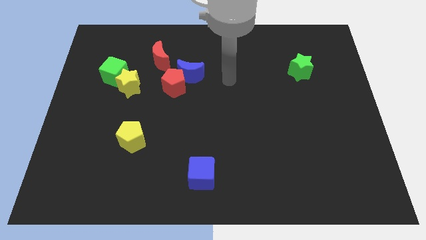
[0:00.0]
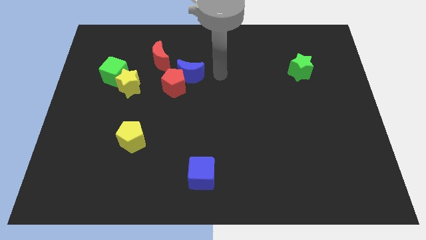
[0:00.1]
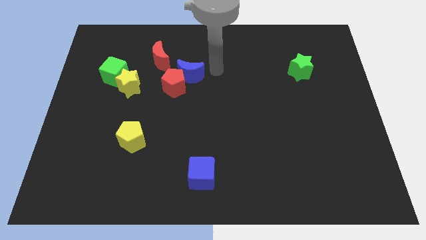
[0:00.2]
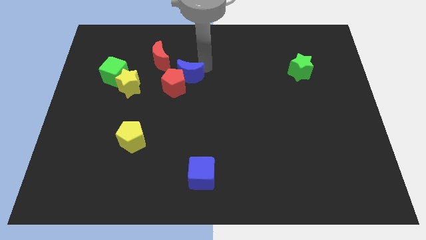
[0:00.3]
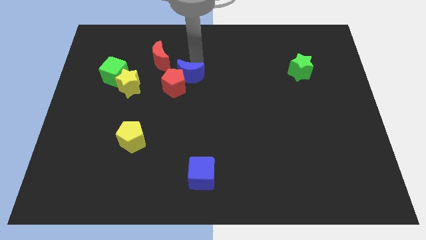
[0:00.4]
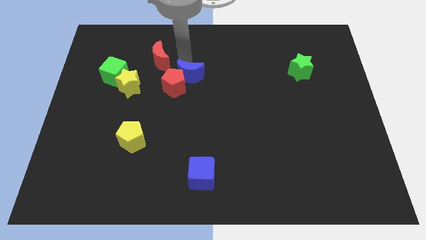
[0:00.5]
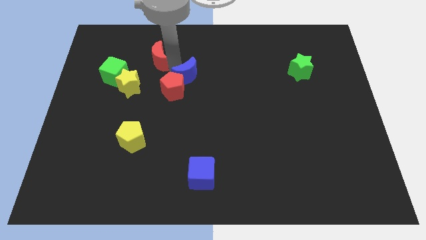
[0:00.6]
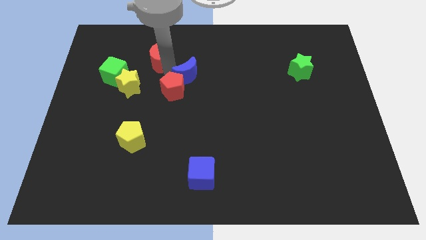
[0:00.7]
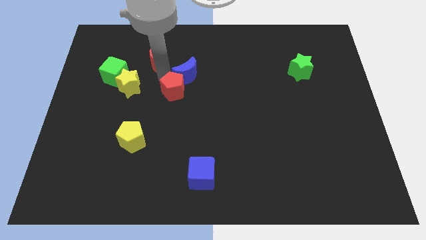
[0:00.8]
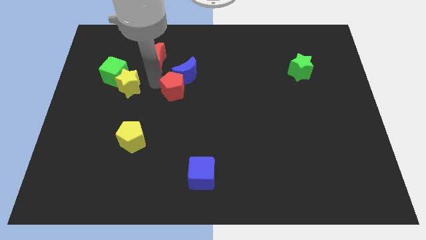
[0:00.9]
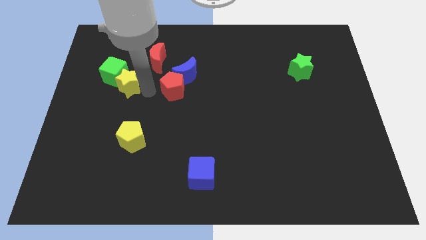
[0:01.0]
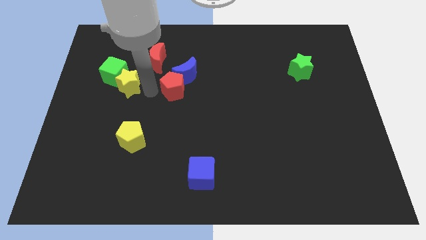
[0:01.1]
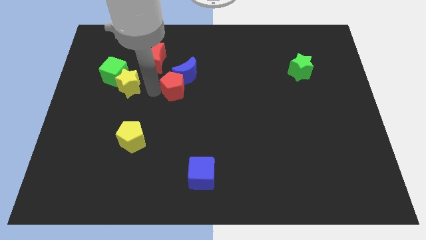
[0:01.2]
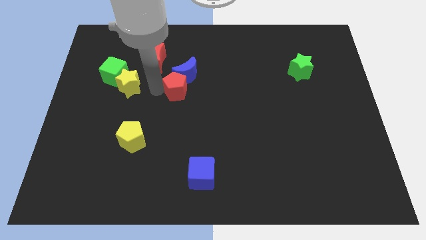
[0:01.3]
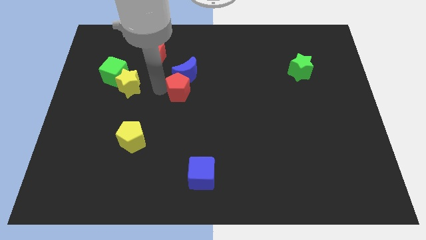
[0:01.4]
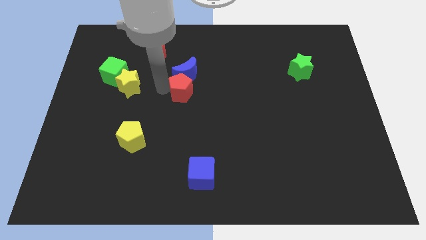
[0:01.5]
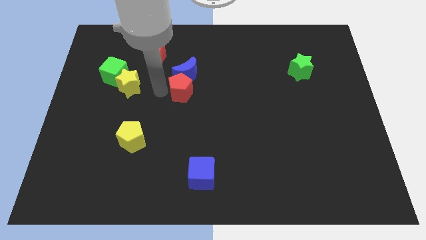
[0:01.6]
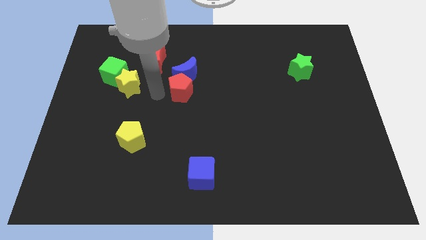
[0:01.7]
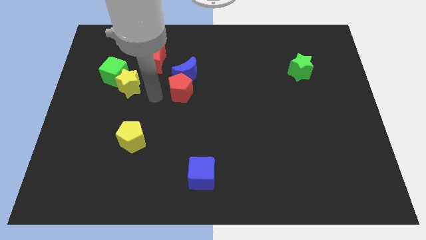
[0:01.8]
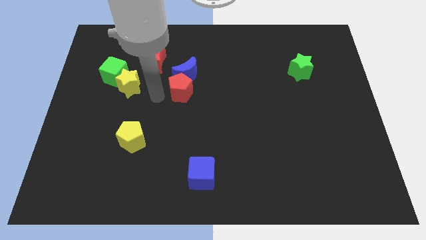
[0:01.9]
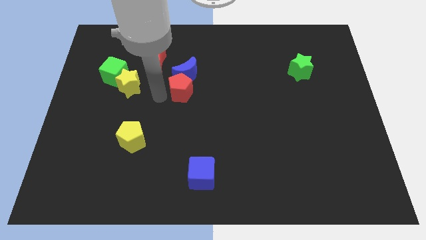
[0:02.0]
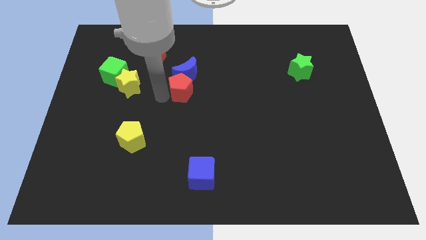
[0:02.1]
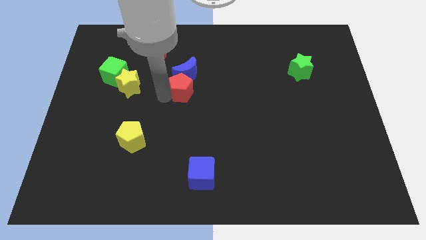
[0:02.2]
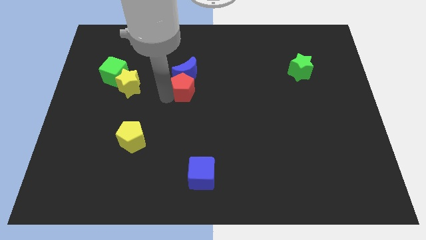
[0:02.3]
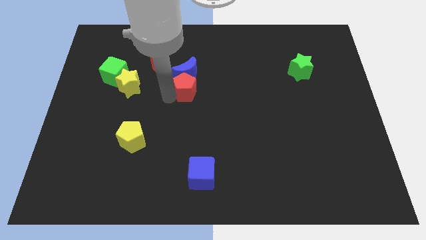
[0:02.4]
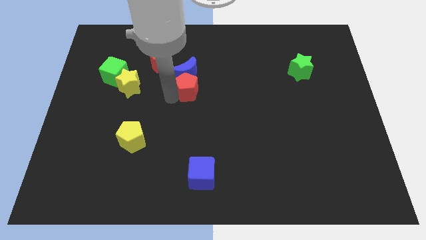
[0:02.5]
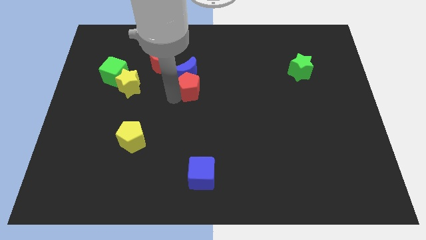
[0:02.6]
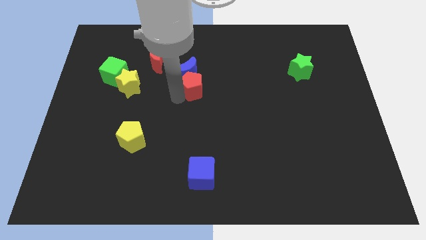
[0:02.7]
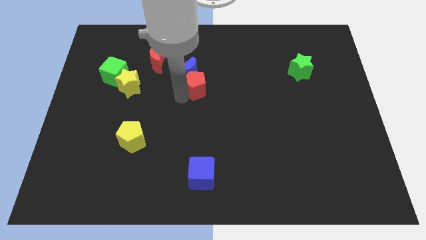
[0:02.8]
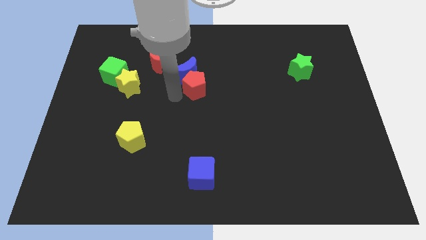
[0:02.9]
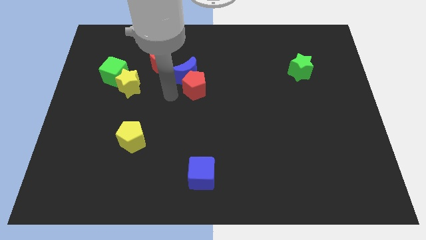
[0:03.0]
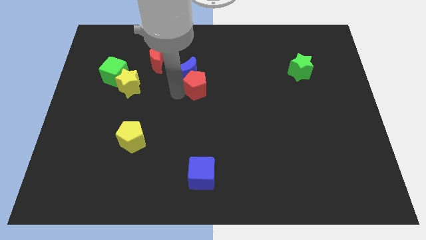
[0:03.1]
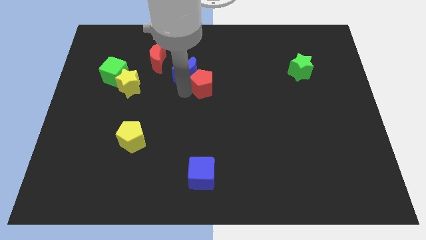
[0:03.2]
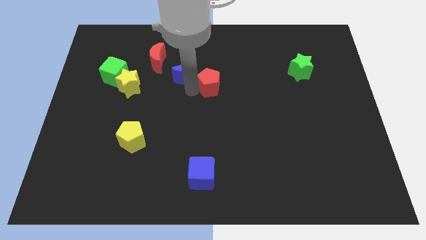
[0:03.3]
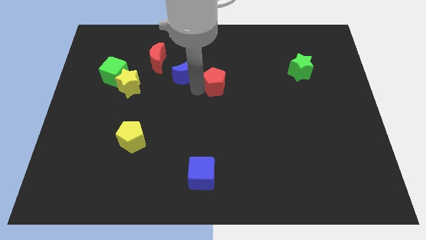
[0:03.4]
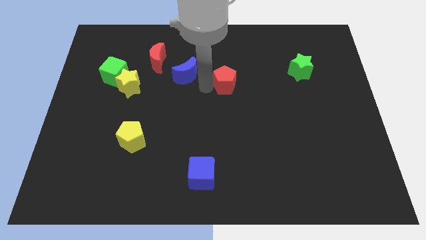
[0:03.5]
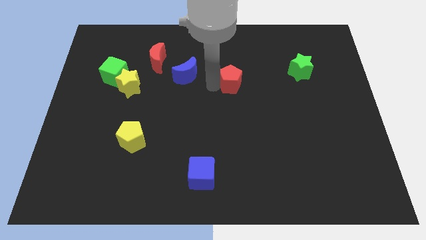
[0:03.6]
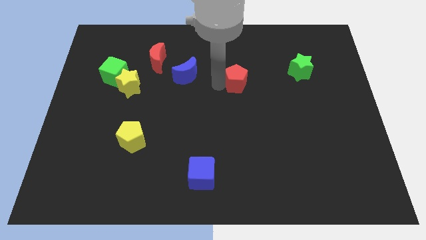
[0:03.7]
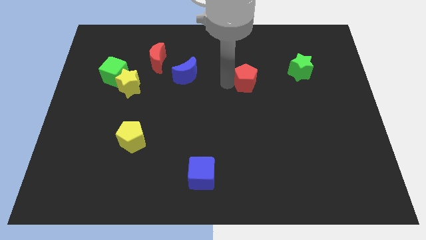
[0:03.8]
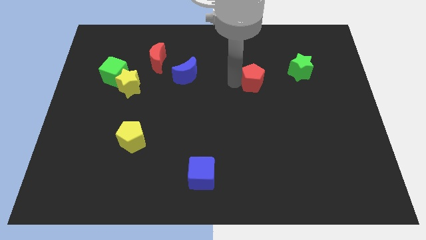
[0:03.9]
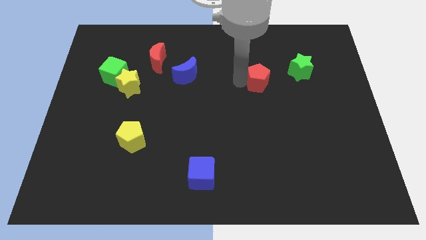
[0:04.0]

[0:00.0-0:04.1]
slide the red pentagon to the right

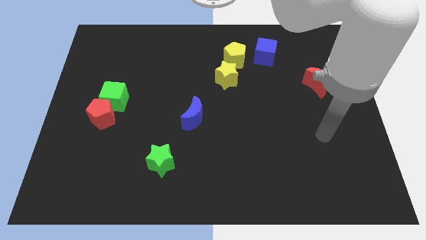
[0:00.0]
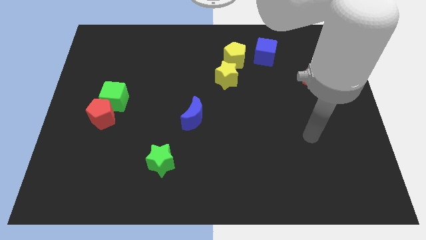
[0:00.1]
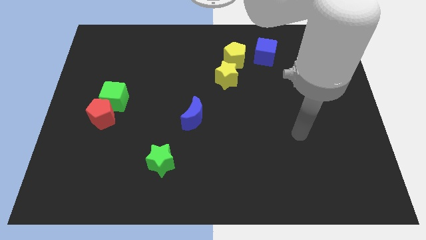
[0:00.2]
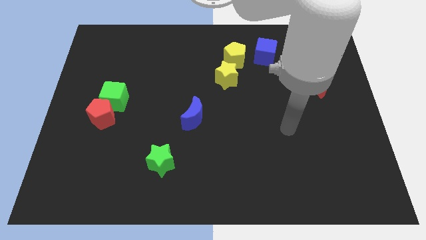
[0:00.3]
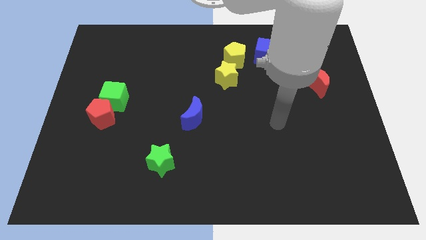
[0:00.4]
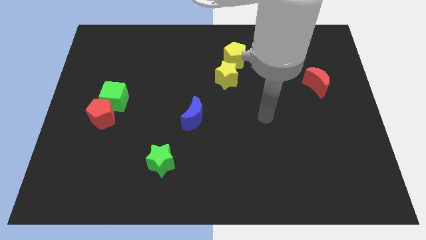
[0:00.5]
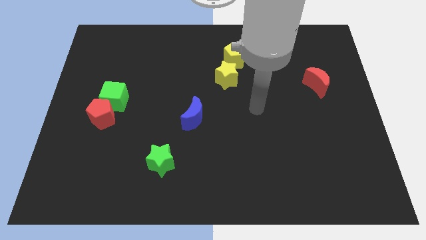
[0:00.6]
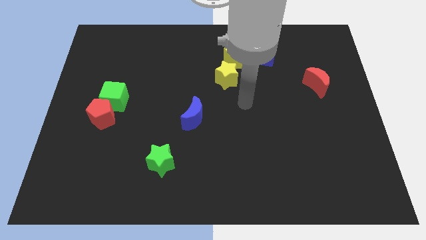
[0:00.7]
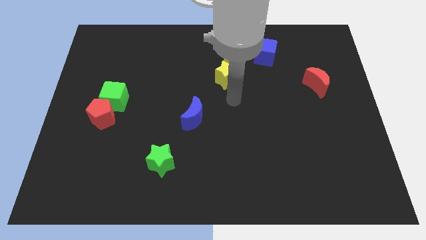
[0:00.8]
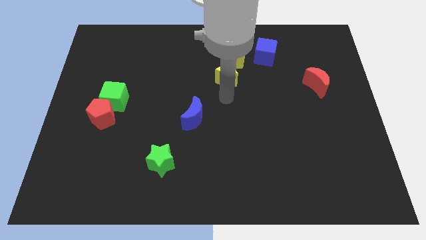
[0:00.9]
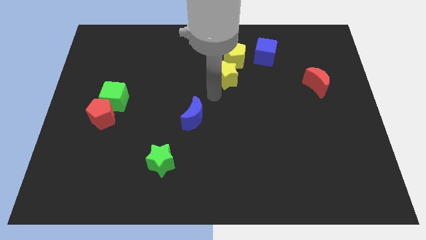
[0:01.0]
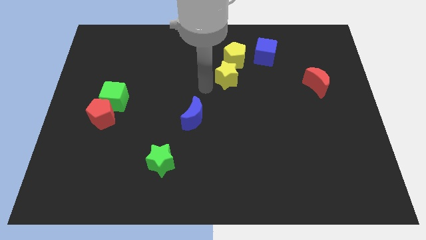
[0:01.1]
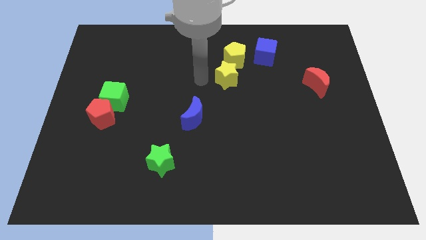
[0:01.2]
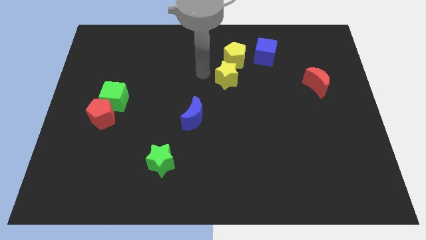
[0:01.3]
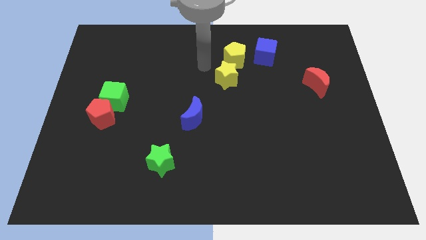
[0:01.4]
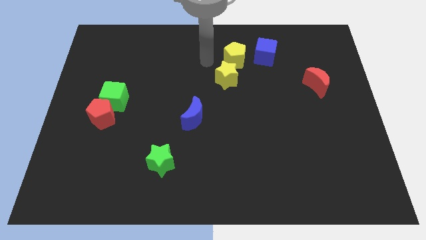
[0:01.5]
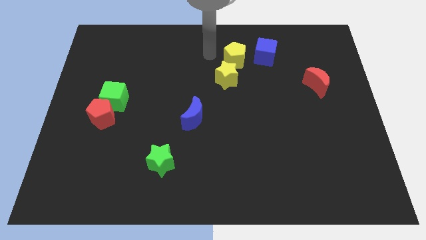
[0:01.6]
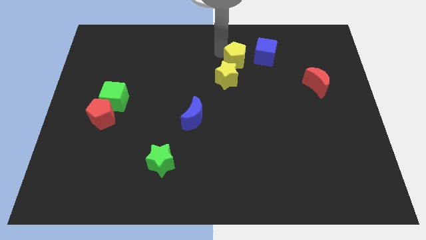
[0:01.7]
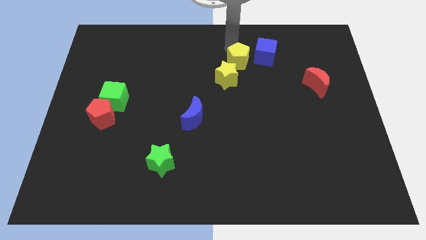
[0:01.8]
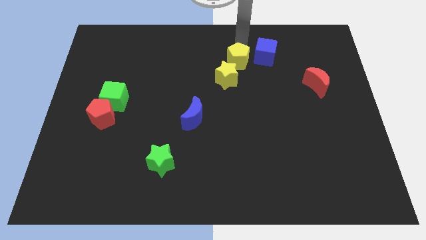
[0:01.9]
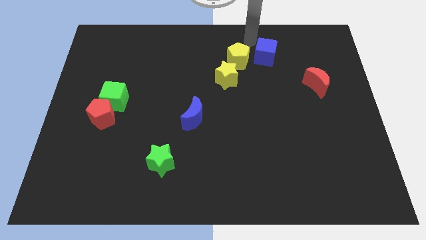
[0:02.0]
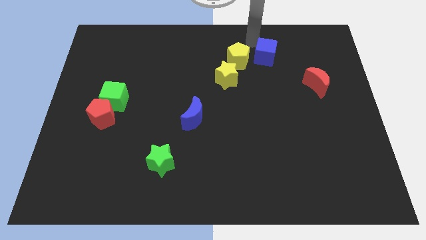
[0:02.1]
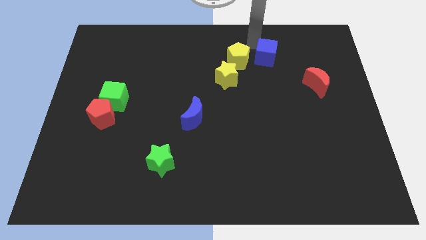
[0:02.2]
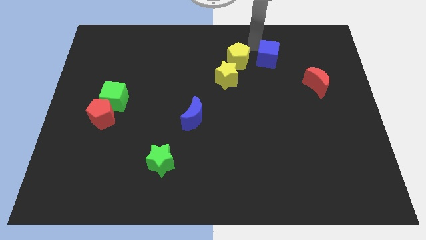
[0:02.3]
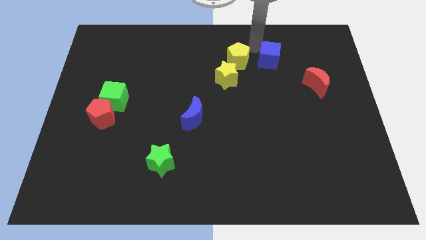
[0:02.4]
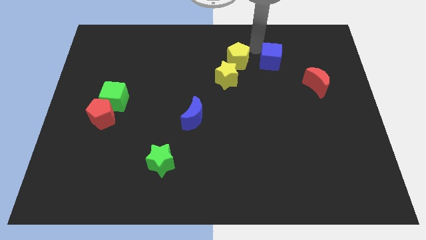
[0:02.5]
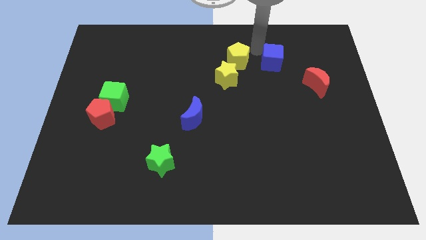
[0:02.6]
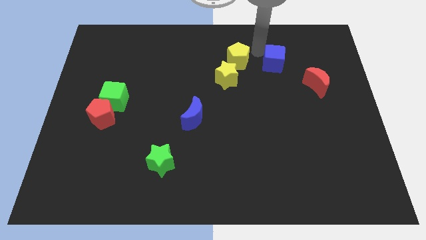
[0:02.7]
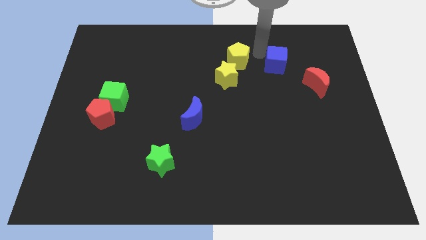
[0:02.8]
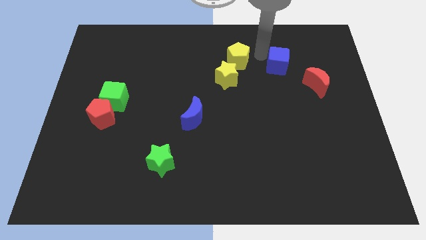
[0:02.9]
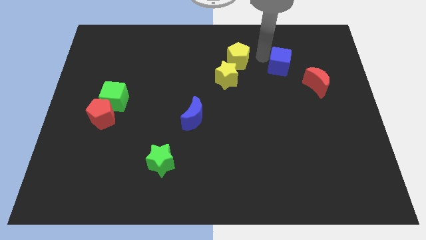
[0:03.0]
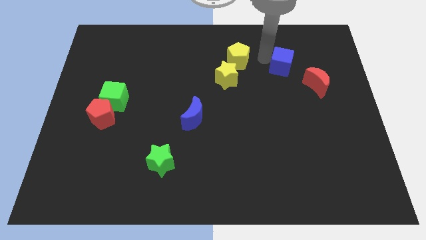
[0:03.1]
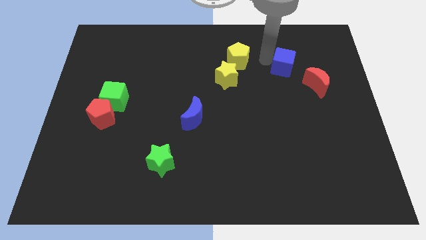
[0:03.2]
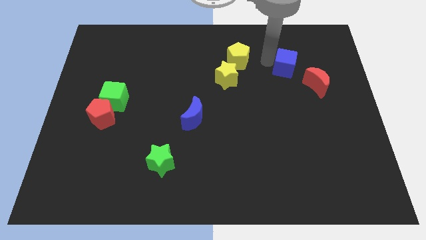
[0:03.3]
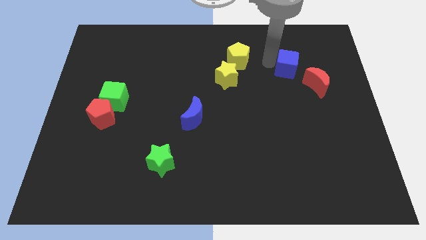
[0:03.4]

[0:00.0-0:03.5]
slightly push the blue cube down and to the right

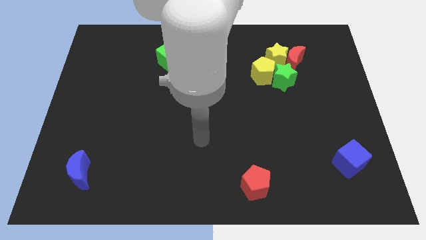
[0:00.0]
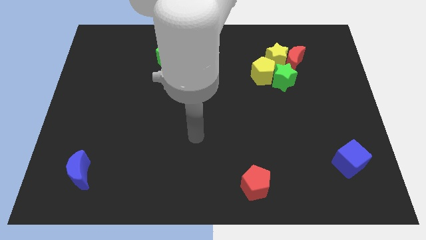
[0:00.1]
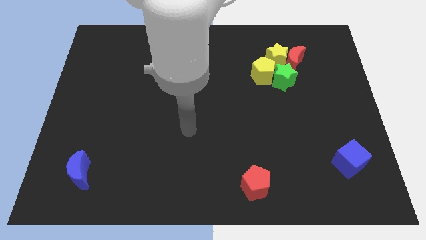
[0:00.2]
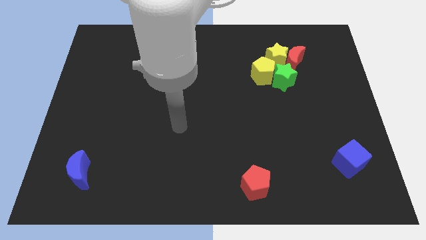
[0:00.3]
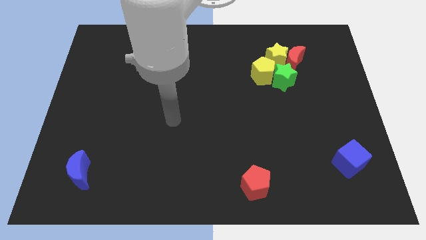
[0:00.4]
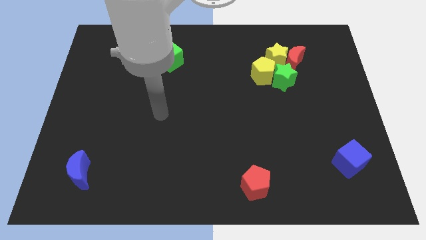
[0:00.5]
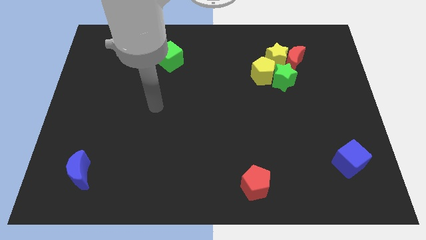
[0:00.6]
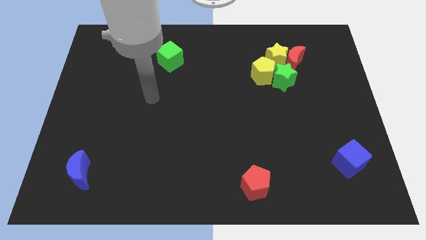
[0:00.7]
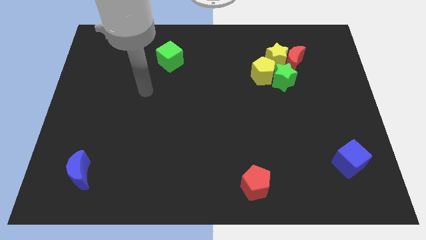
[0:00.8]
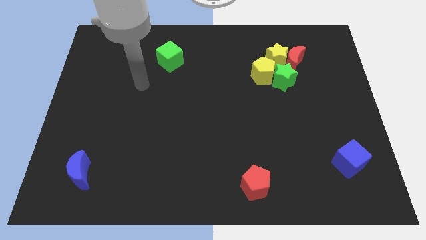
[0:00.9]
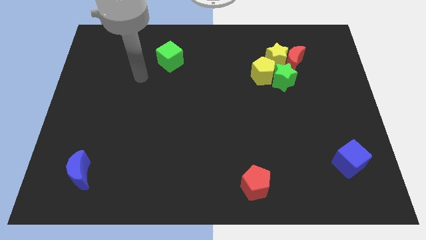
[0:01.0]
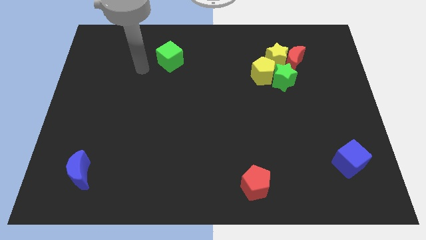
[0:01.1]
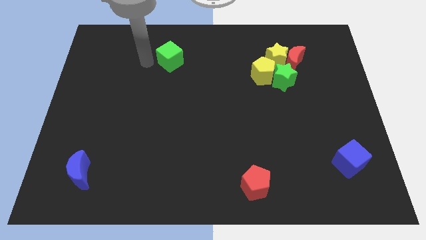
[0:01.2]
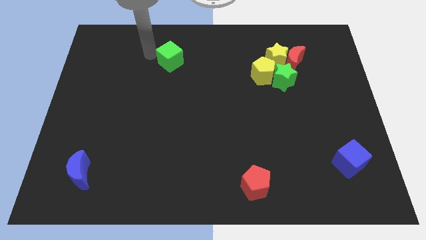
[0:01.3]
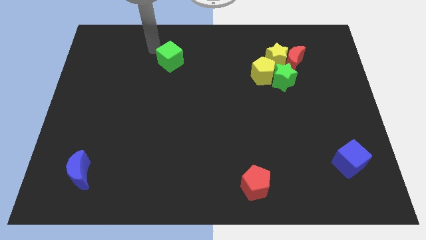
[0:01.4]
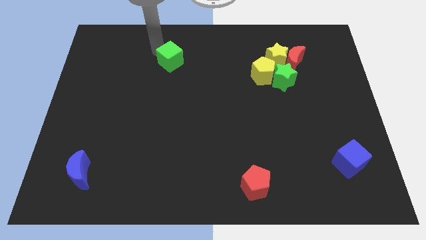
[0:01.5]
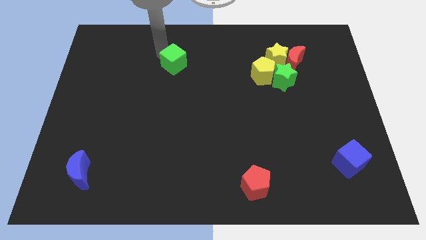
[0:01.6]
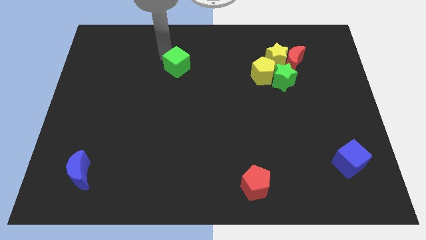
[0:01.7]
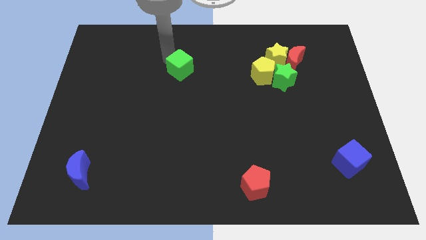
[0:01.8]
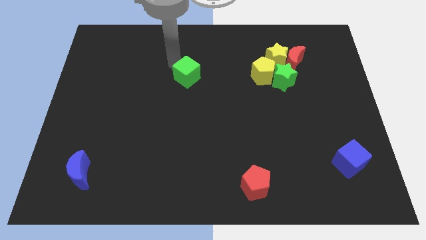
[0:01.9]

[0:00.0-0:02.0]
move the green cube downwards and then to the right a little
